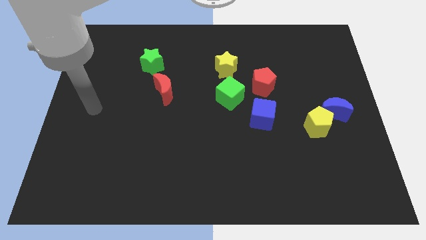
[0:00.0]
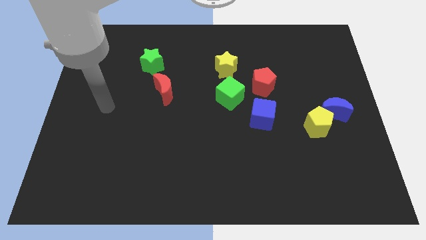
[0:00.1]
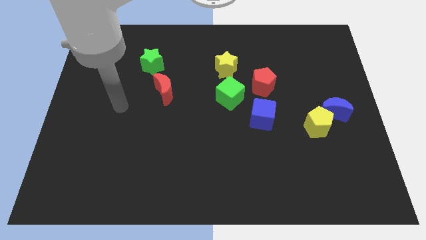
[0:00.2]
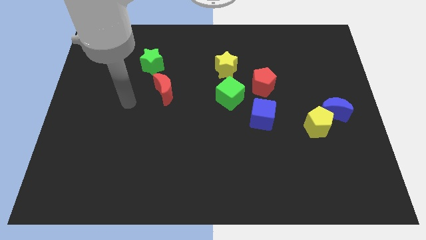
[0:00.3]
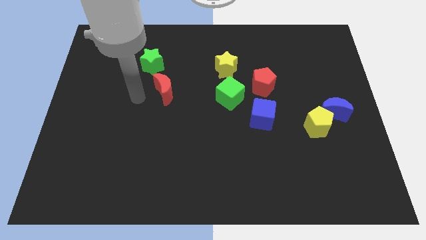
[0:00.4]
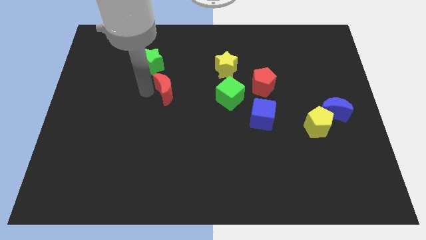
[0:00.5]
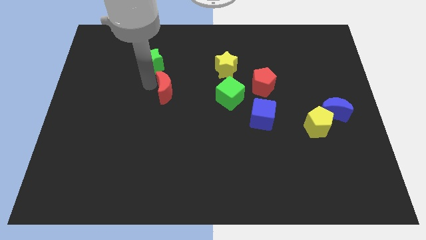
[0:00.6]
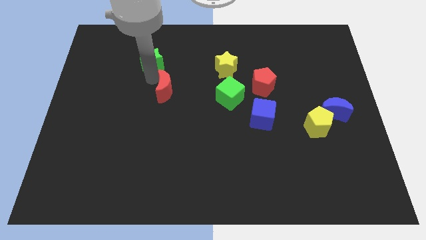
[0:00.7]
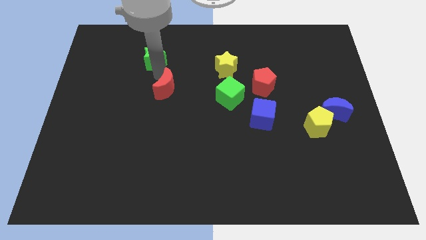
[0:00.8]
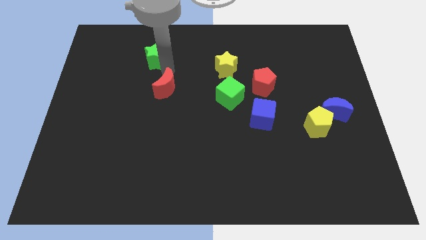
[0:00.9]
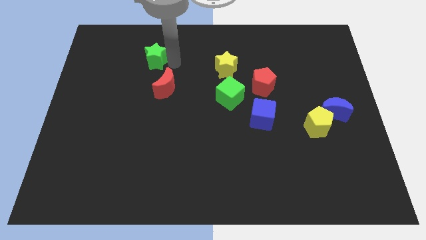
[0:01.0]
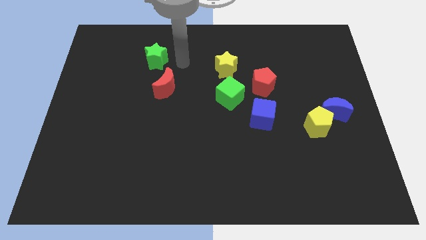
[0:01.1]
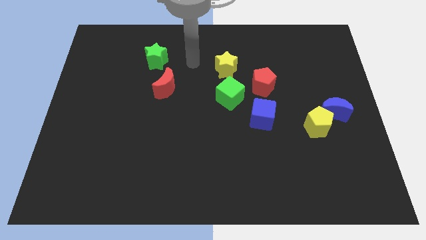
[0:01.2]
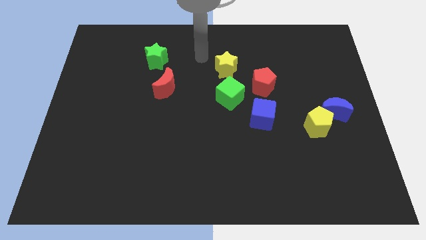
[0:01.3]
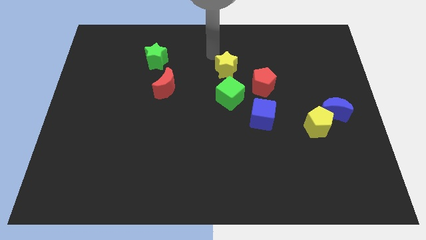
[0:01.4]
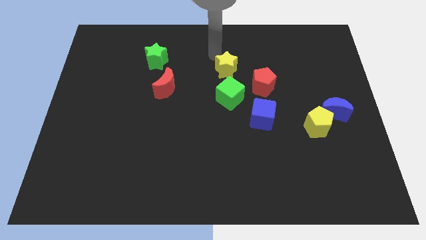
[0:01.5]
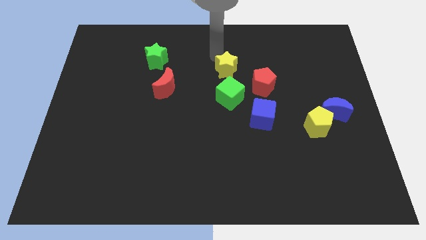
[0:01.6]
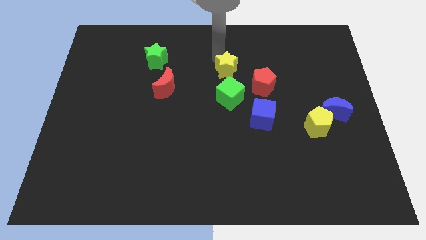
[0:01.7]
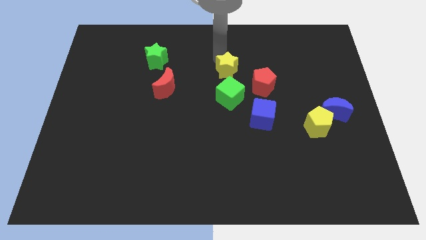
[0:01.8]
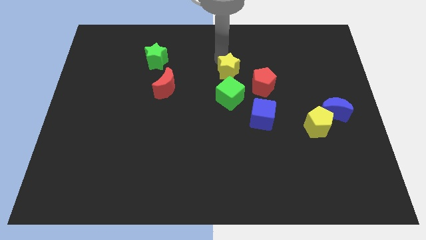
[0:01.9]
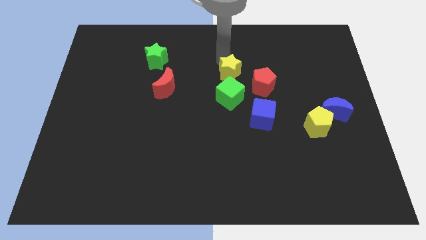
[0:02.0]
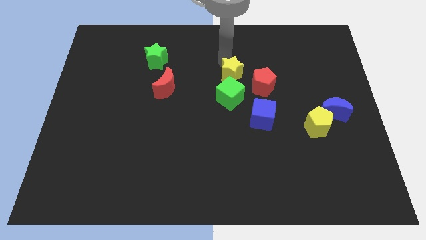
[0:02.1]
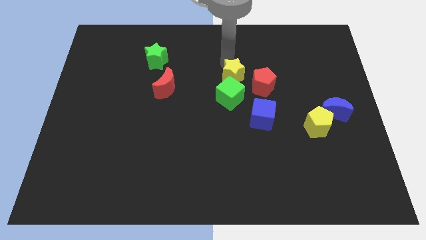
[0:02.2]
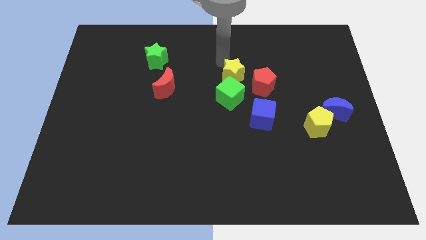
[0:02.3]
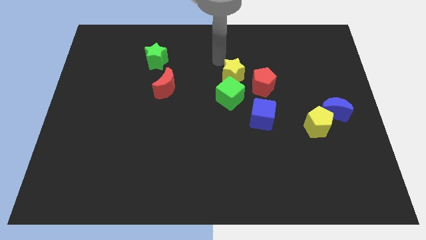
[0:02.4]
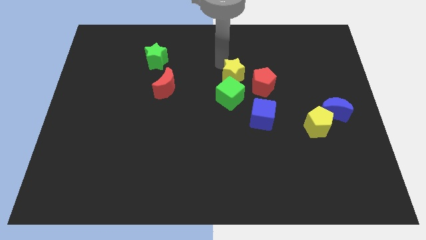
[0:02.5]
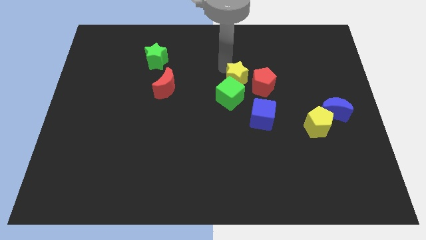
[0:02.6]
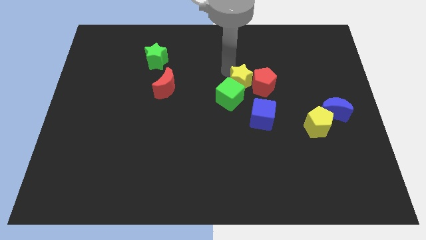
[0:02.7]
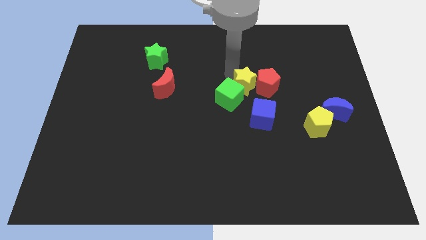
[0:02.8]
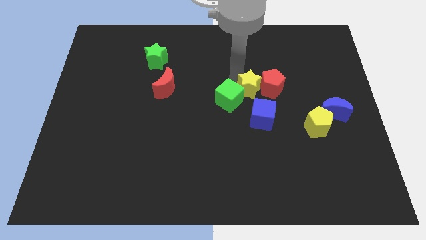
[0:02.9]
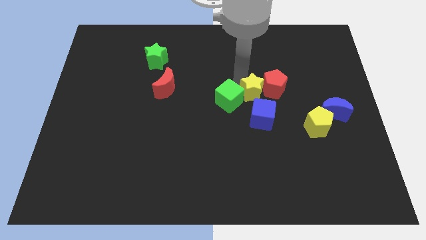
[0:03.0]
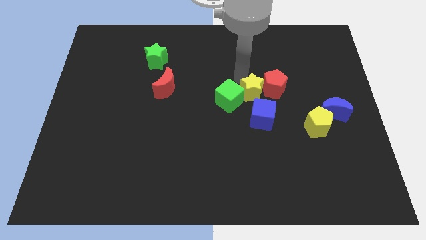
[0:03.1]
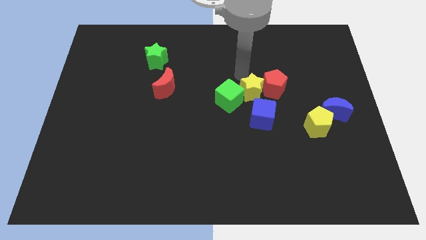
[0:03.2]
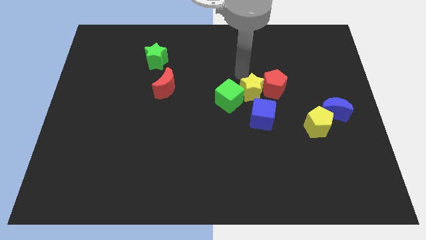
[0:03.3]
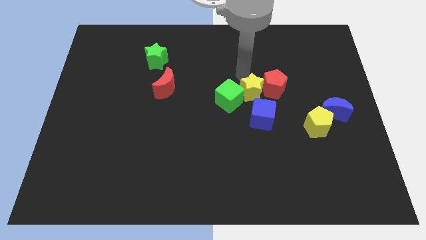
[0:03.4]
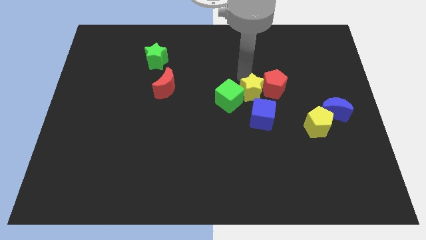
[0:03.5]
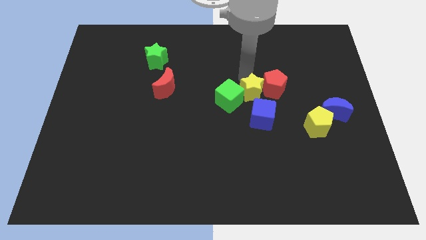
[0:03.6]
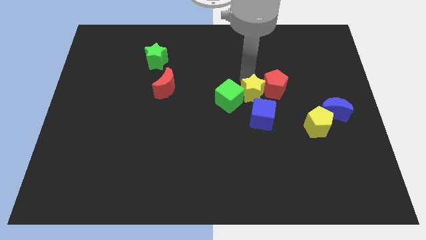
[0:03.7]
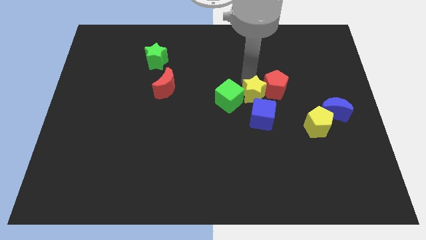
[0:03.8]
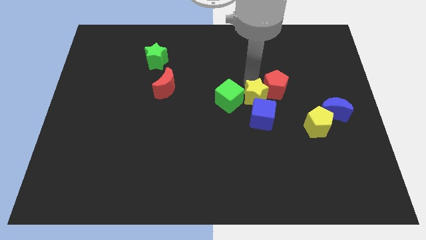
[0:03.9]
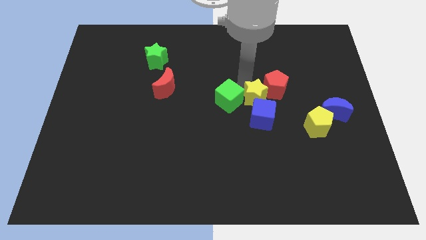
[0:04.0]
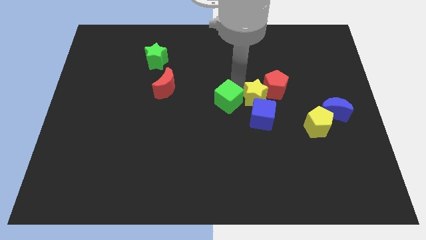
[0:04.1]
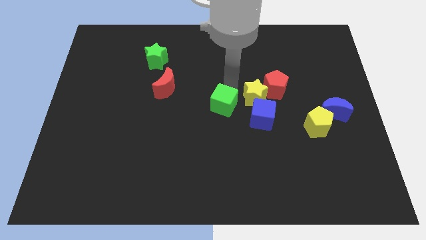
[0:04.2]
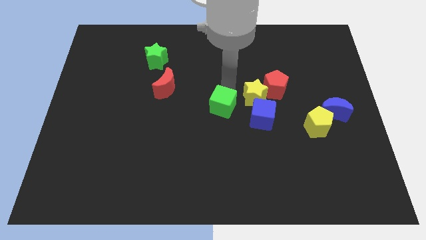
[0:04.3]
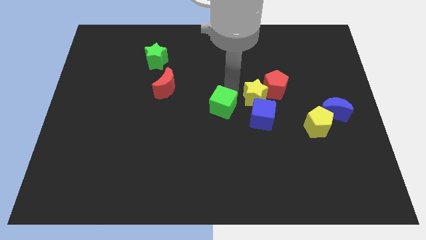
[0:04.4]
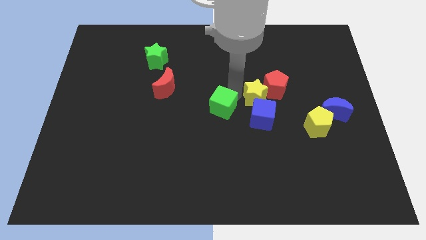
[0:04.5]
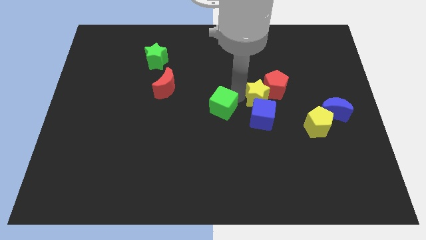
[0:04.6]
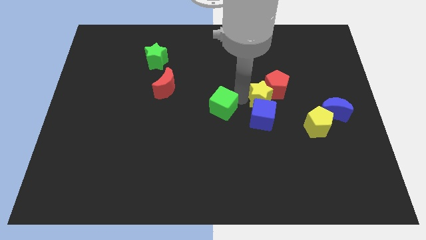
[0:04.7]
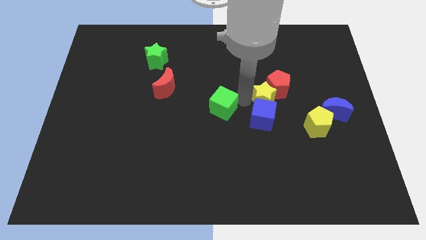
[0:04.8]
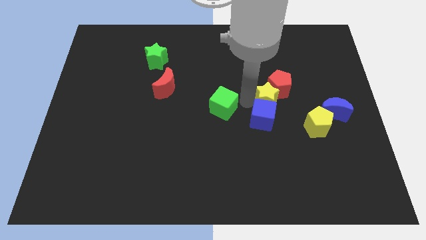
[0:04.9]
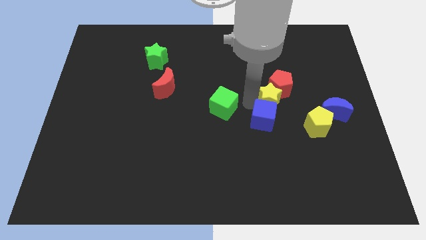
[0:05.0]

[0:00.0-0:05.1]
slide the yellow star to the top left of the yellow pentagon

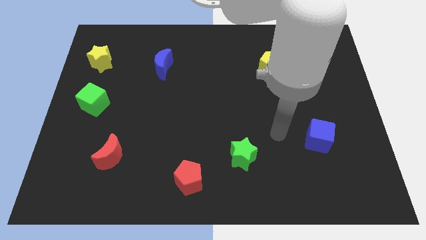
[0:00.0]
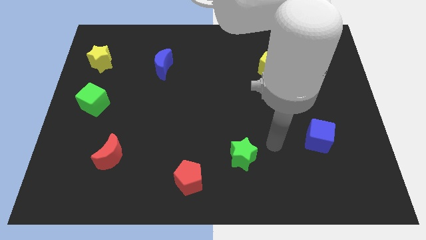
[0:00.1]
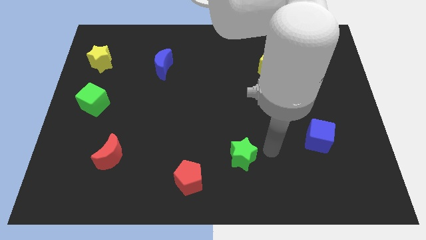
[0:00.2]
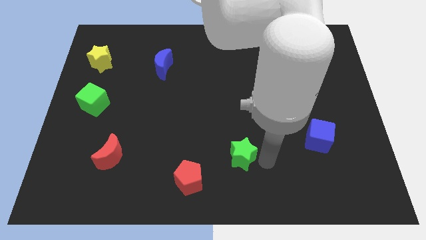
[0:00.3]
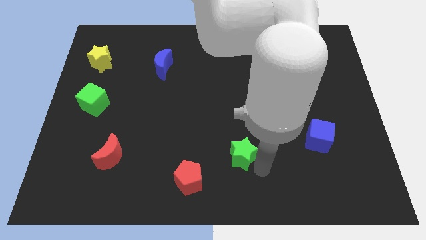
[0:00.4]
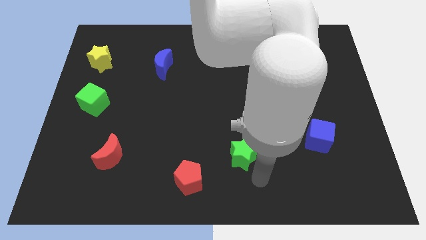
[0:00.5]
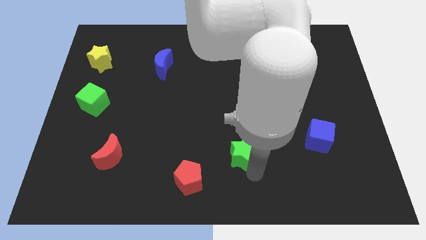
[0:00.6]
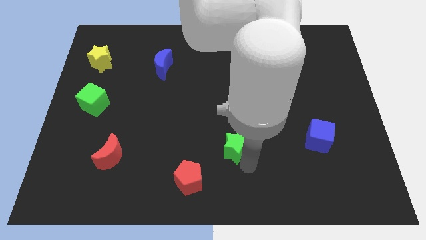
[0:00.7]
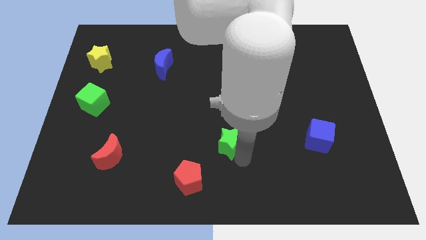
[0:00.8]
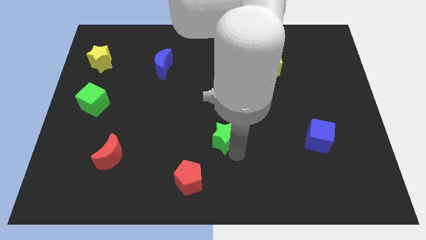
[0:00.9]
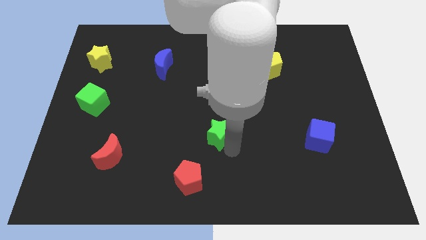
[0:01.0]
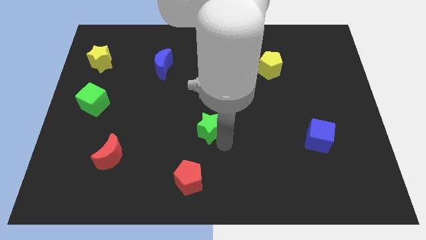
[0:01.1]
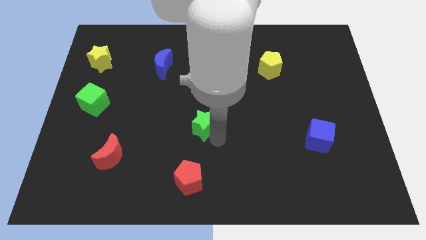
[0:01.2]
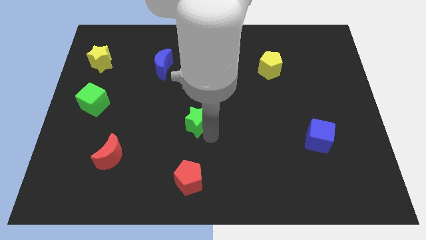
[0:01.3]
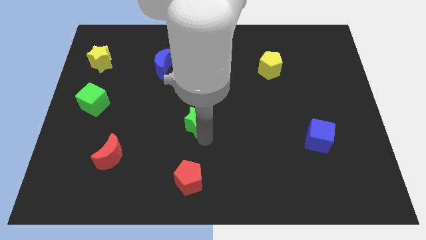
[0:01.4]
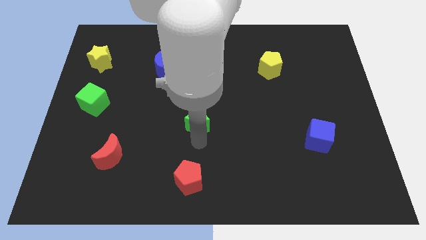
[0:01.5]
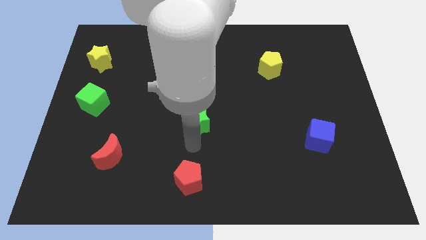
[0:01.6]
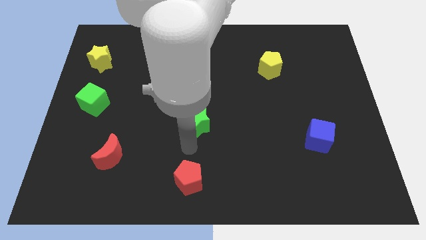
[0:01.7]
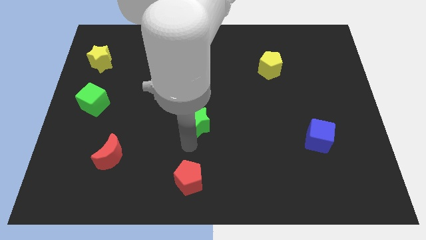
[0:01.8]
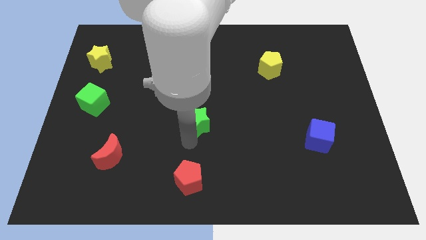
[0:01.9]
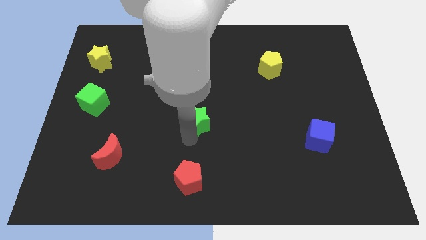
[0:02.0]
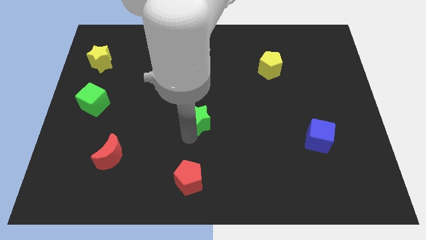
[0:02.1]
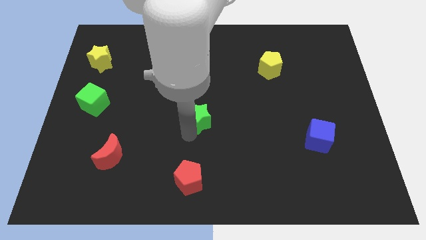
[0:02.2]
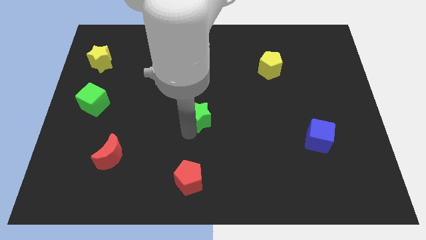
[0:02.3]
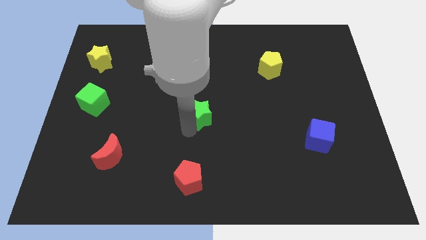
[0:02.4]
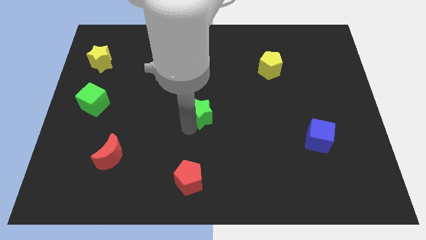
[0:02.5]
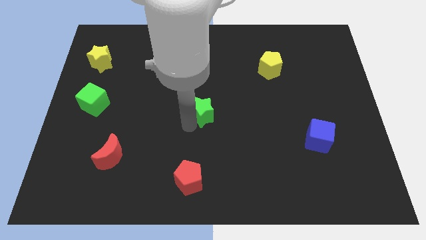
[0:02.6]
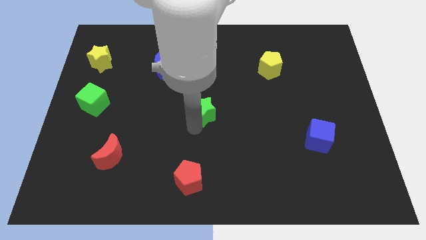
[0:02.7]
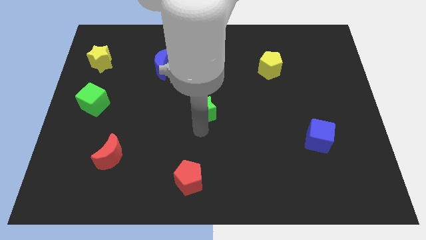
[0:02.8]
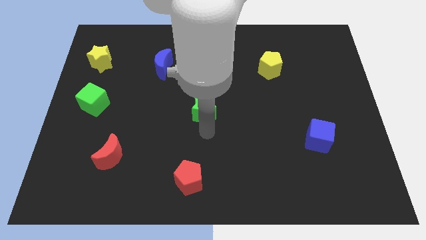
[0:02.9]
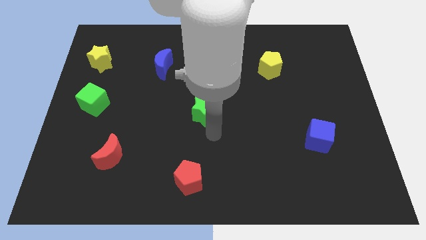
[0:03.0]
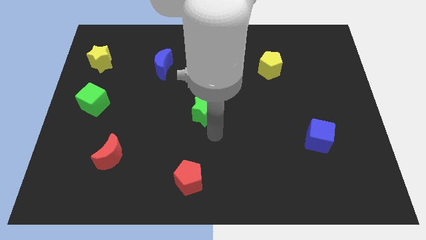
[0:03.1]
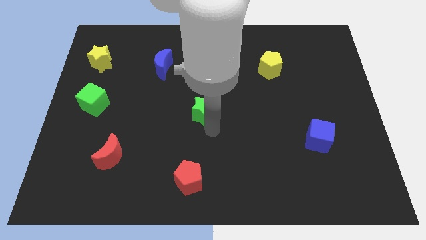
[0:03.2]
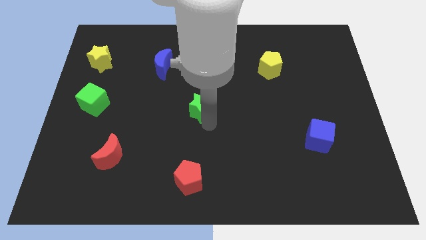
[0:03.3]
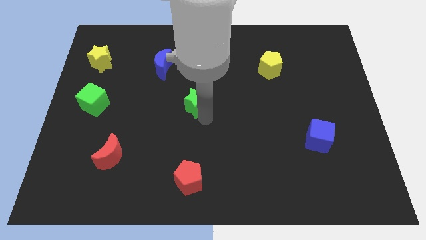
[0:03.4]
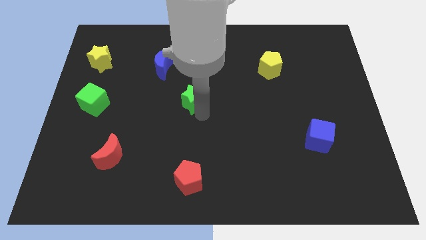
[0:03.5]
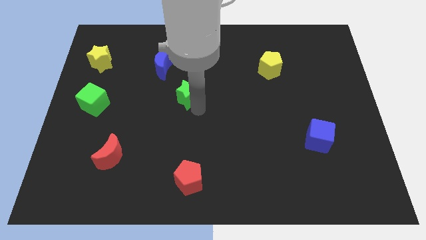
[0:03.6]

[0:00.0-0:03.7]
put the green star to the bottom right of the blue moon
